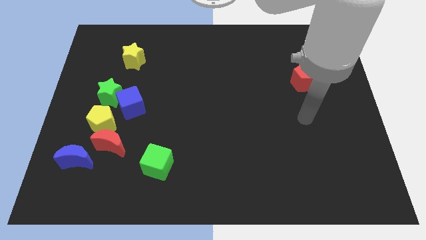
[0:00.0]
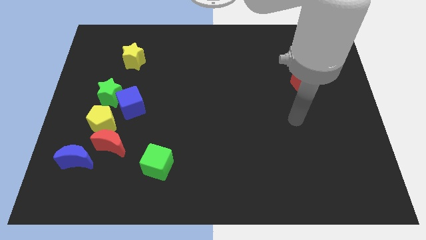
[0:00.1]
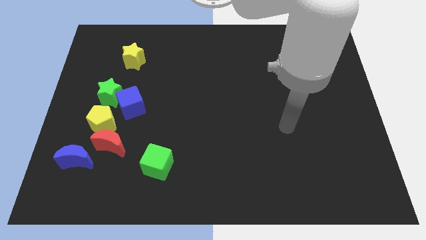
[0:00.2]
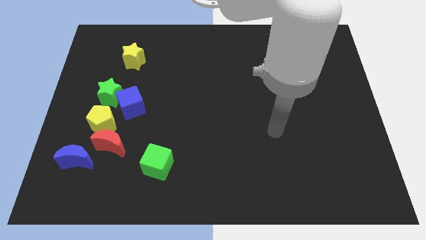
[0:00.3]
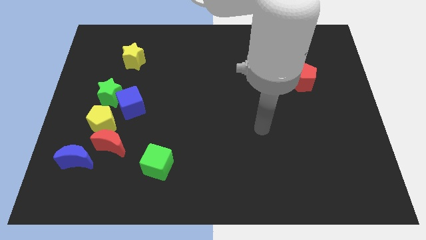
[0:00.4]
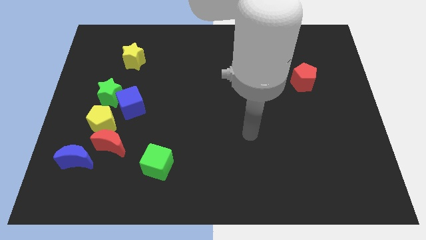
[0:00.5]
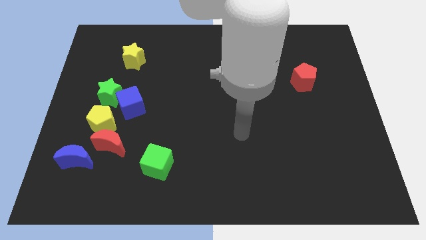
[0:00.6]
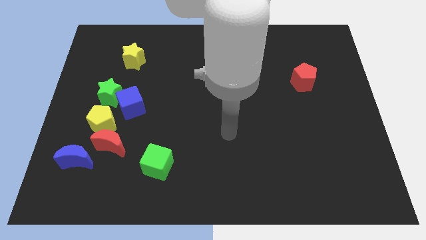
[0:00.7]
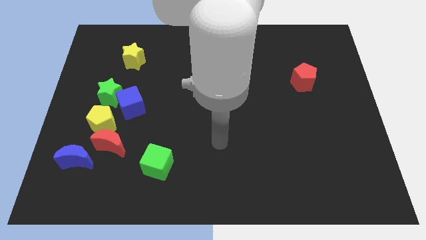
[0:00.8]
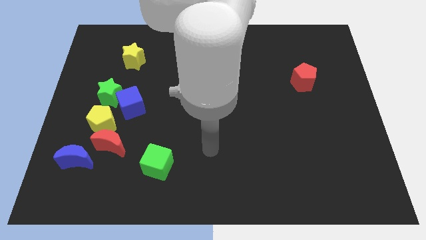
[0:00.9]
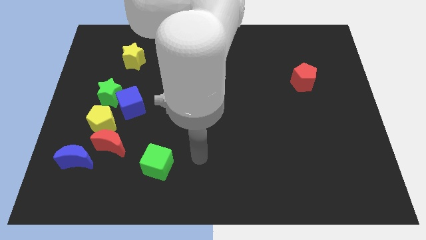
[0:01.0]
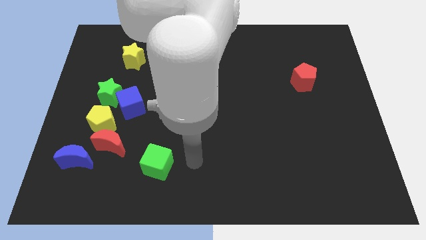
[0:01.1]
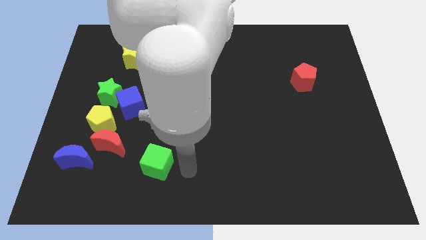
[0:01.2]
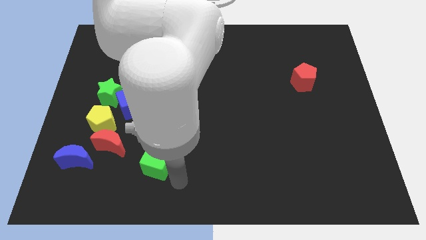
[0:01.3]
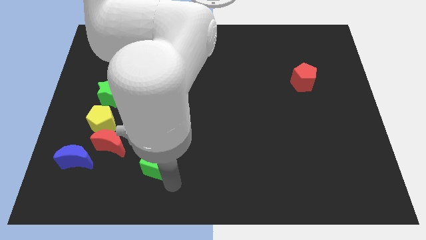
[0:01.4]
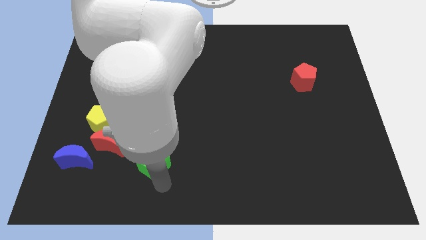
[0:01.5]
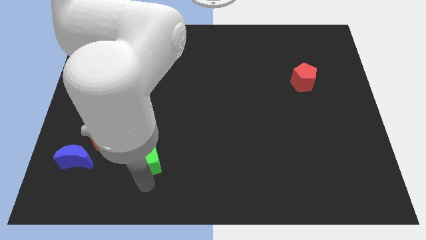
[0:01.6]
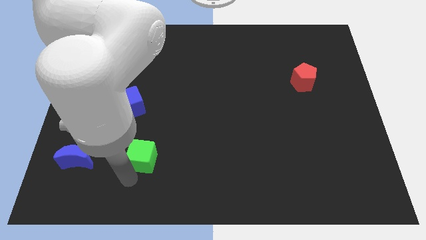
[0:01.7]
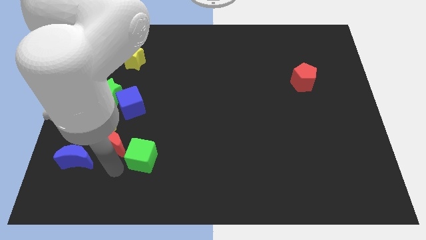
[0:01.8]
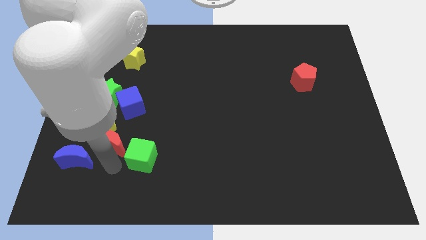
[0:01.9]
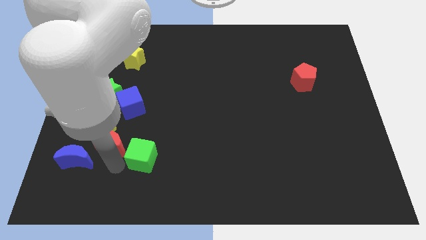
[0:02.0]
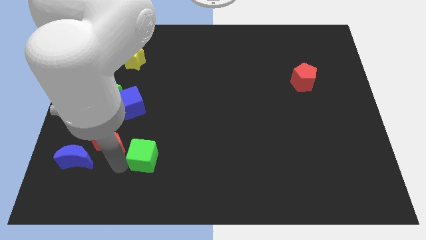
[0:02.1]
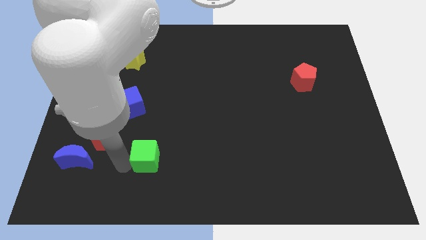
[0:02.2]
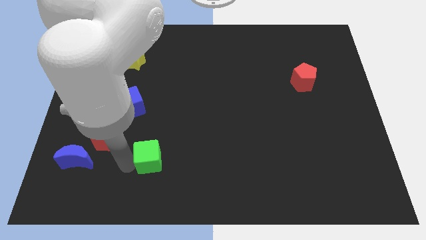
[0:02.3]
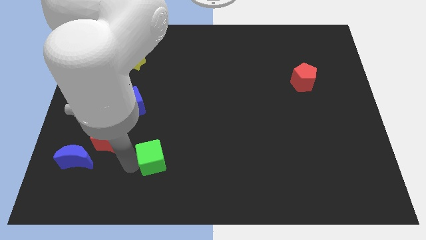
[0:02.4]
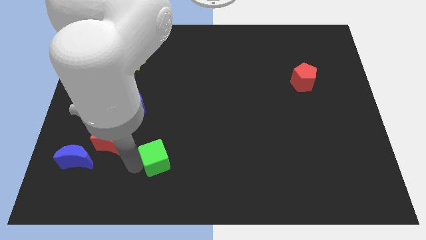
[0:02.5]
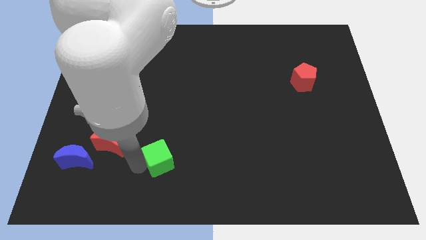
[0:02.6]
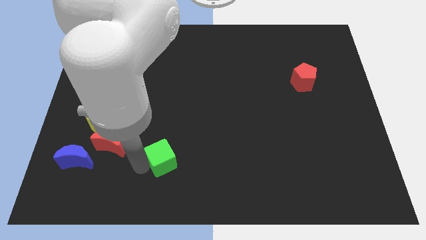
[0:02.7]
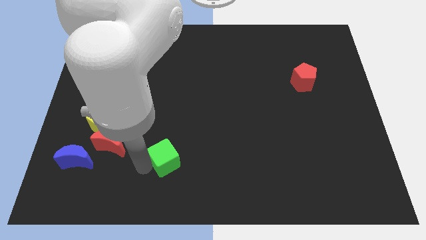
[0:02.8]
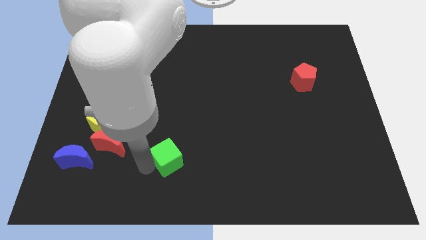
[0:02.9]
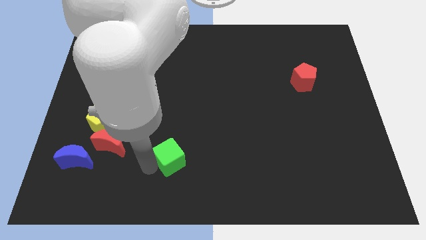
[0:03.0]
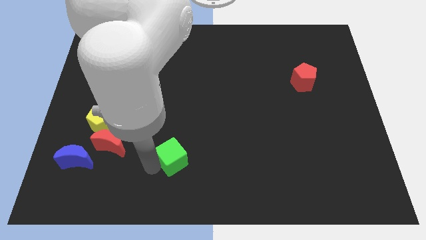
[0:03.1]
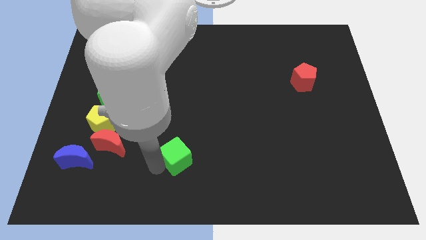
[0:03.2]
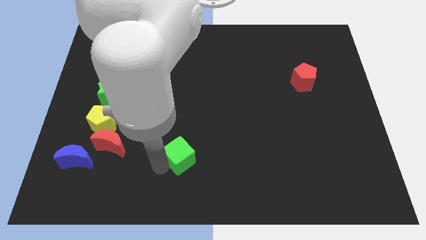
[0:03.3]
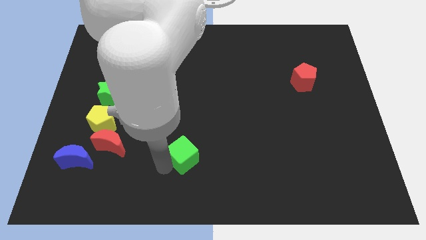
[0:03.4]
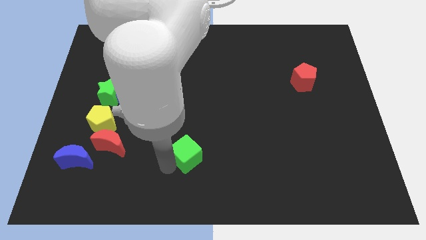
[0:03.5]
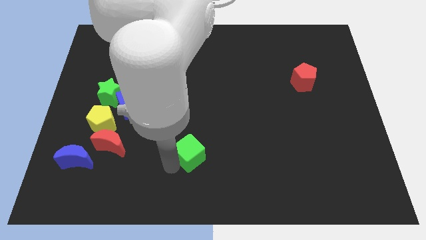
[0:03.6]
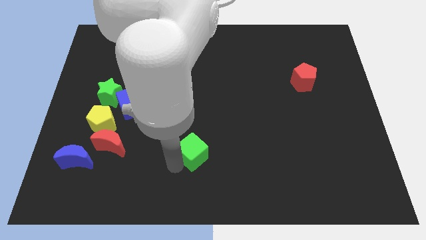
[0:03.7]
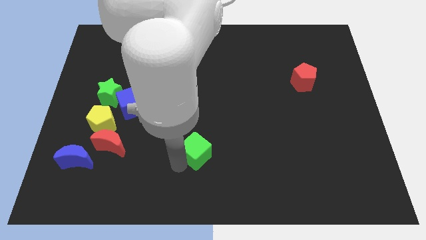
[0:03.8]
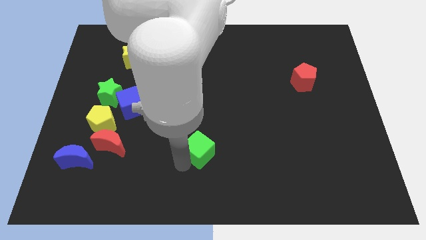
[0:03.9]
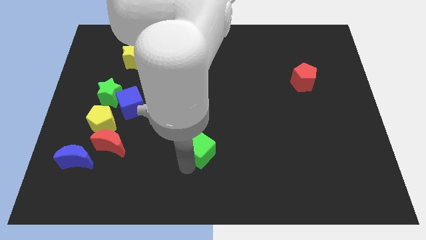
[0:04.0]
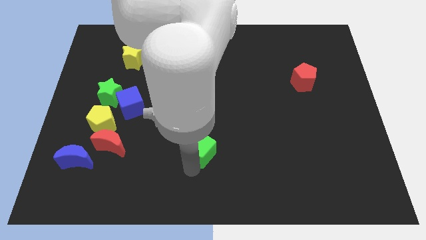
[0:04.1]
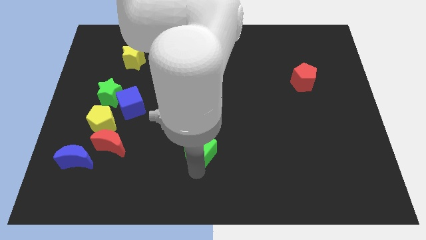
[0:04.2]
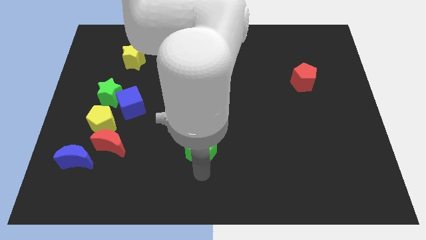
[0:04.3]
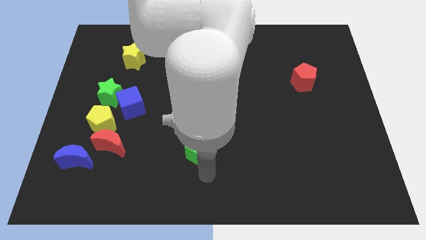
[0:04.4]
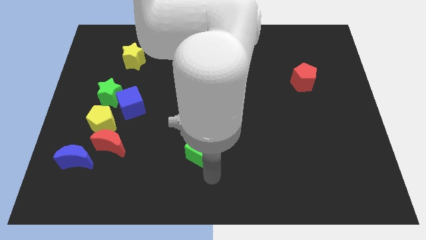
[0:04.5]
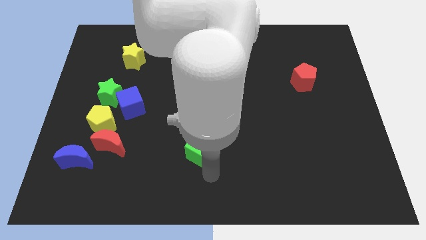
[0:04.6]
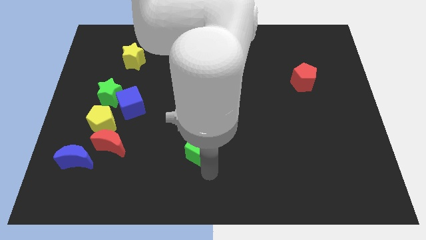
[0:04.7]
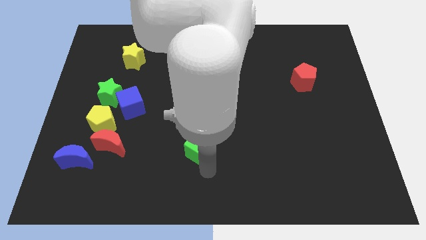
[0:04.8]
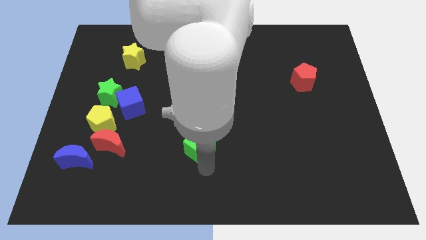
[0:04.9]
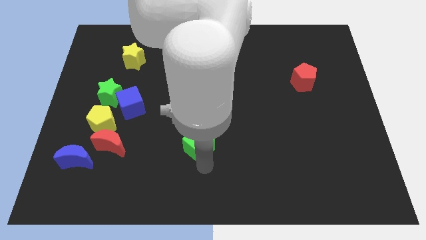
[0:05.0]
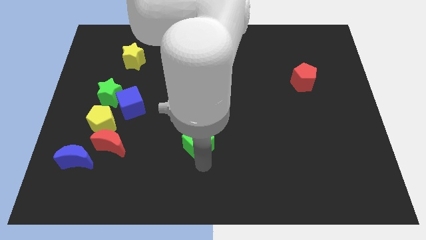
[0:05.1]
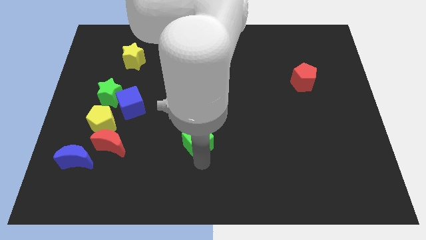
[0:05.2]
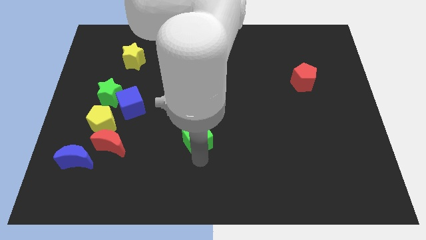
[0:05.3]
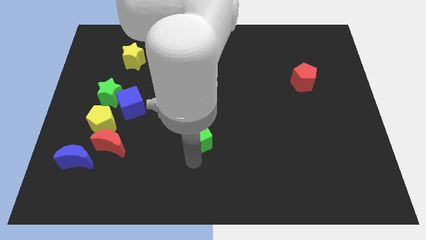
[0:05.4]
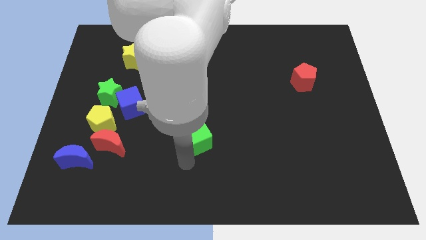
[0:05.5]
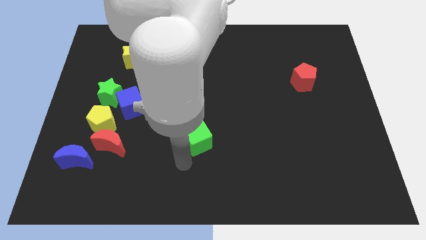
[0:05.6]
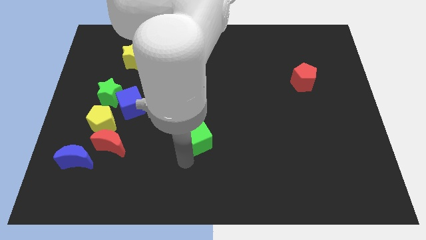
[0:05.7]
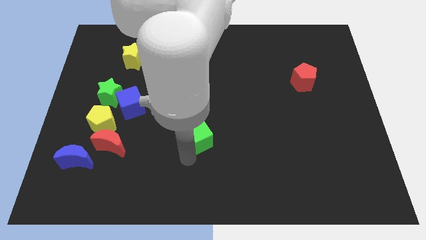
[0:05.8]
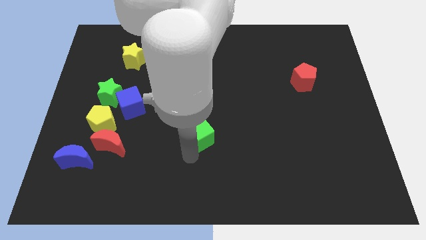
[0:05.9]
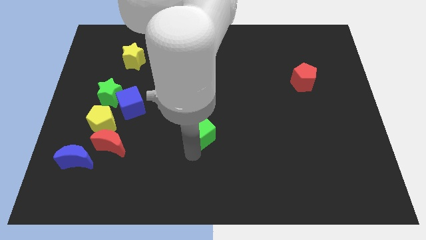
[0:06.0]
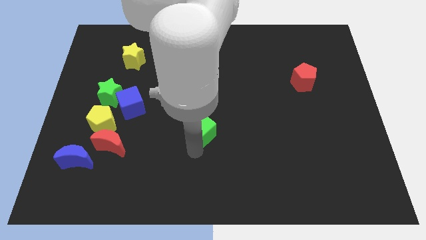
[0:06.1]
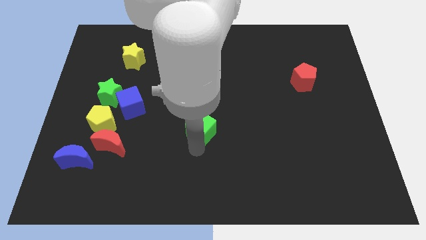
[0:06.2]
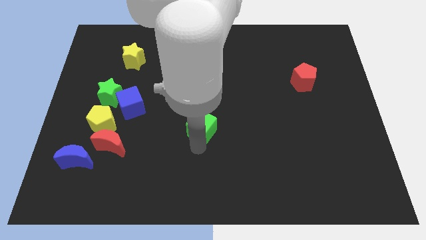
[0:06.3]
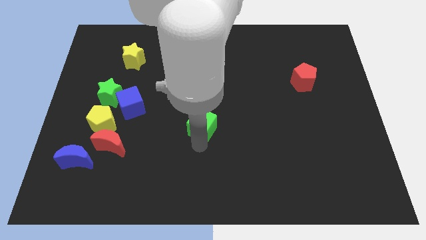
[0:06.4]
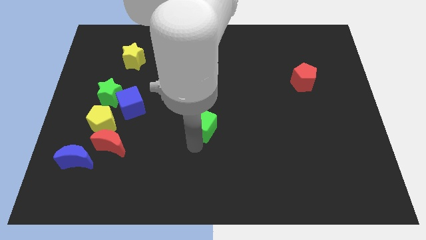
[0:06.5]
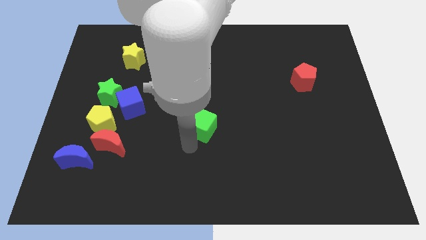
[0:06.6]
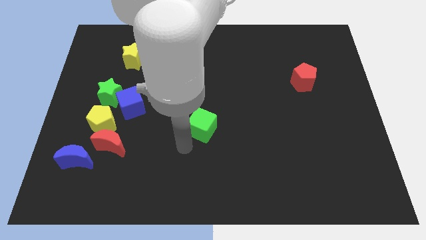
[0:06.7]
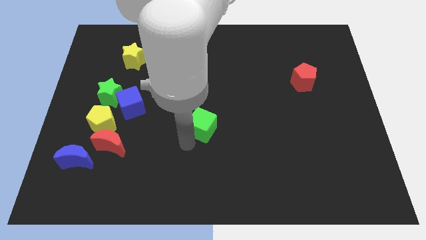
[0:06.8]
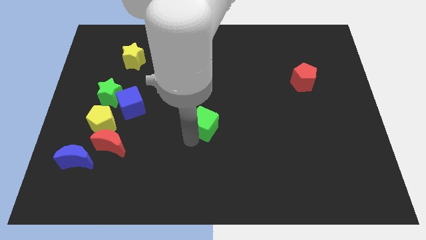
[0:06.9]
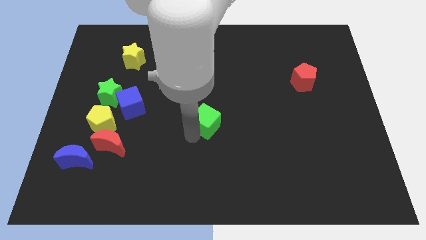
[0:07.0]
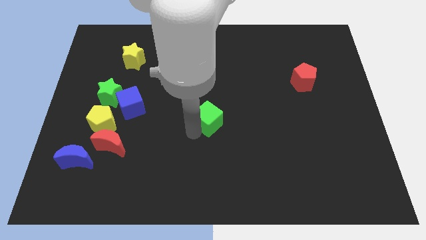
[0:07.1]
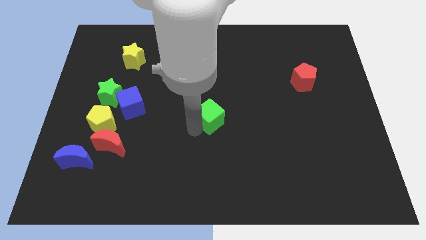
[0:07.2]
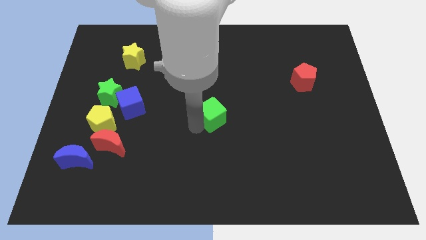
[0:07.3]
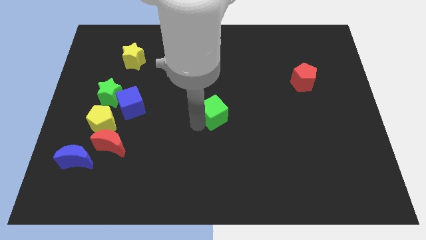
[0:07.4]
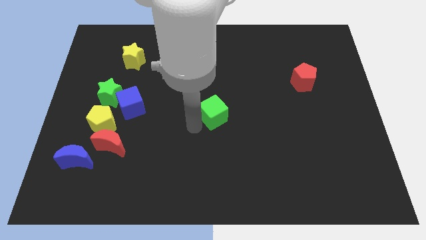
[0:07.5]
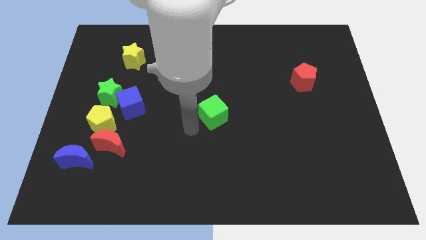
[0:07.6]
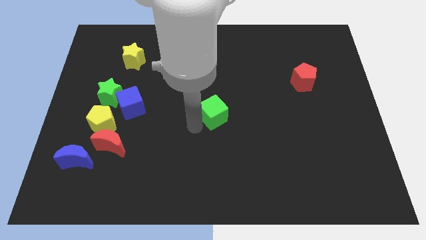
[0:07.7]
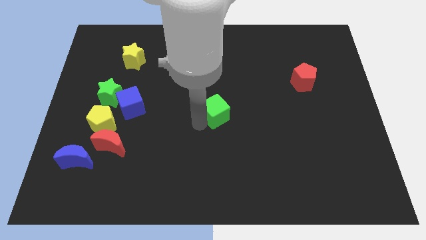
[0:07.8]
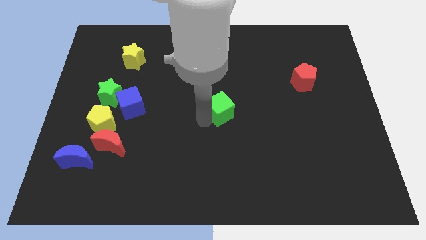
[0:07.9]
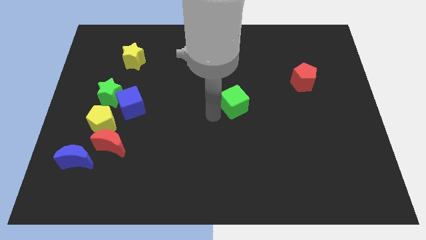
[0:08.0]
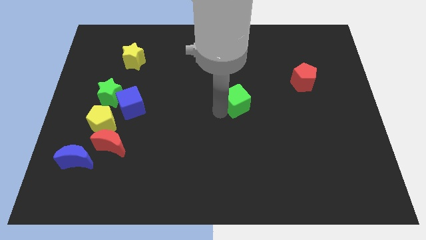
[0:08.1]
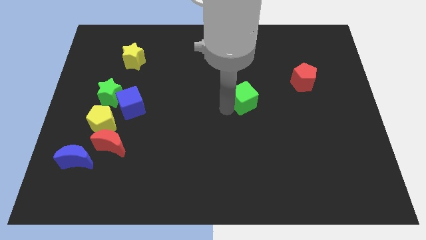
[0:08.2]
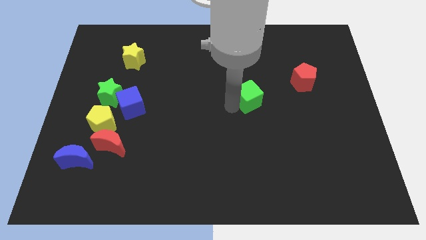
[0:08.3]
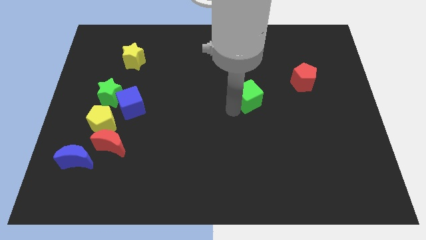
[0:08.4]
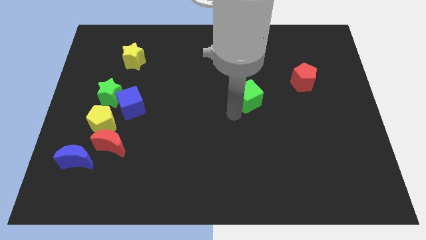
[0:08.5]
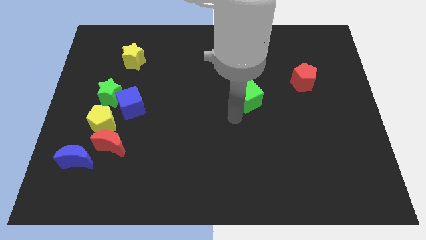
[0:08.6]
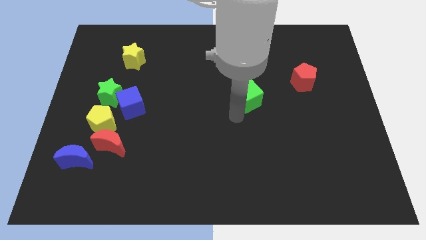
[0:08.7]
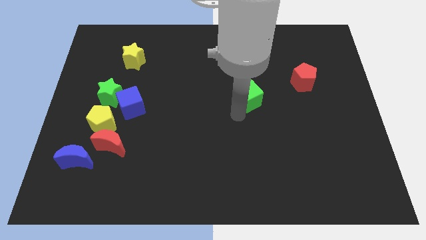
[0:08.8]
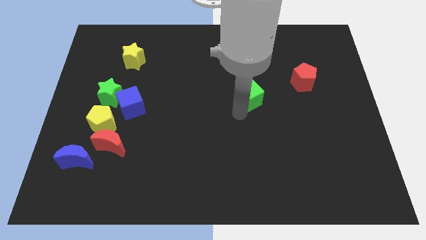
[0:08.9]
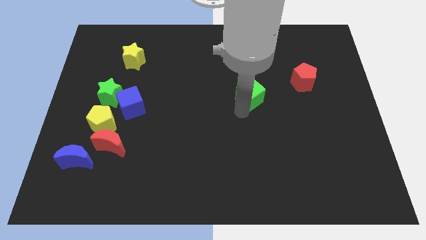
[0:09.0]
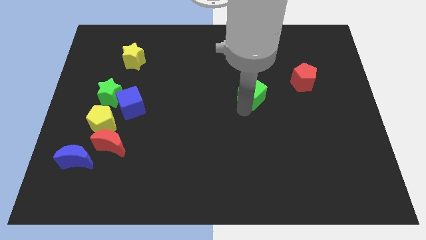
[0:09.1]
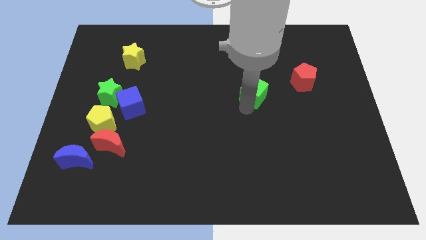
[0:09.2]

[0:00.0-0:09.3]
slide the green cube to the left side of the red pentagon
